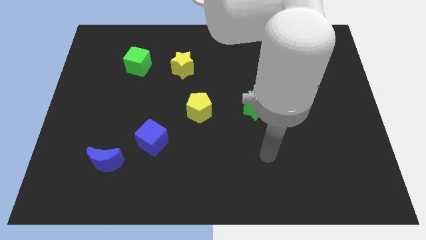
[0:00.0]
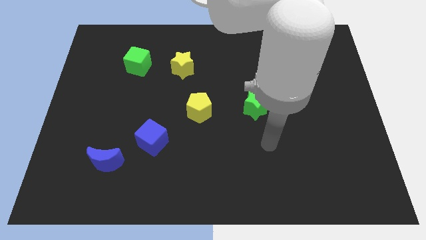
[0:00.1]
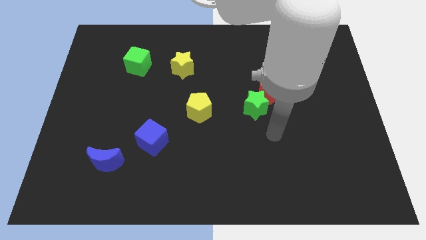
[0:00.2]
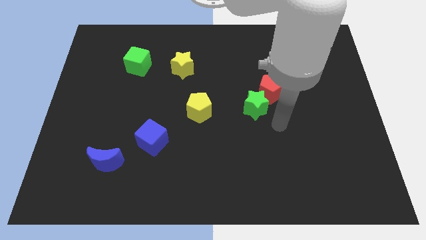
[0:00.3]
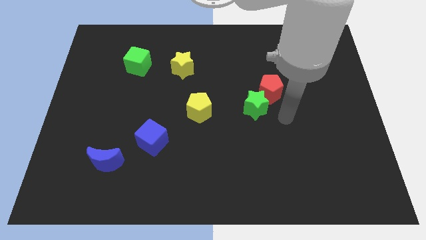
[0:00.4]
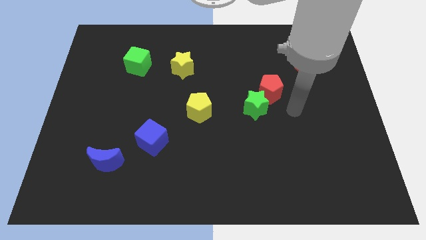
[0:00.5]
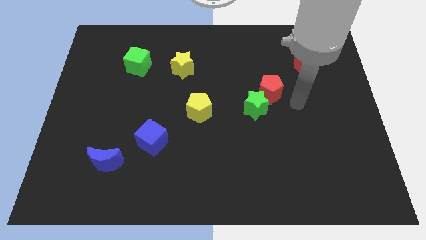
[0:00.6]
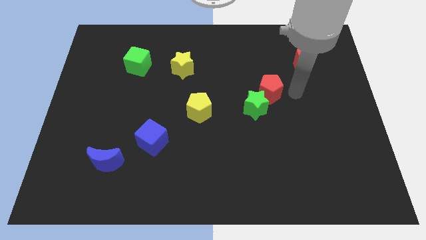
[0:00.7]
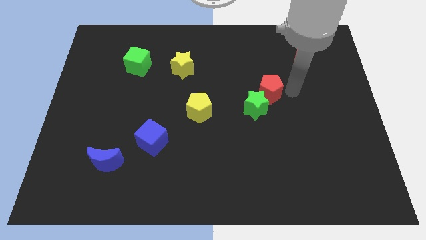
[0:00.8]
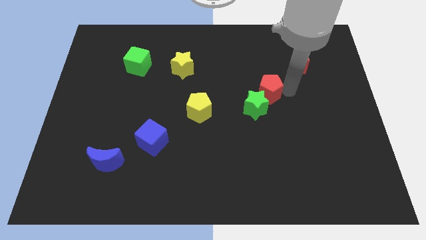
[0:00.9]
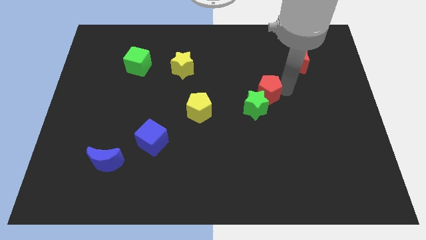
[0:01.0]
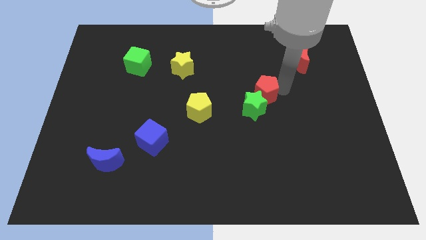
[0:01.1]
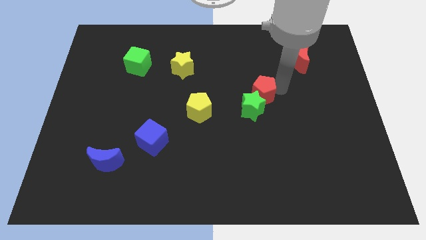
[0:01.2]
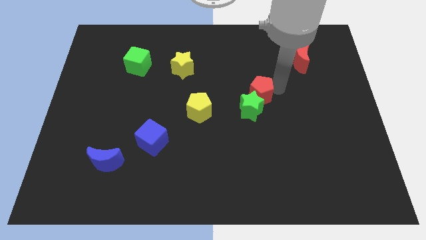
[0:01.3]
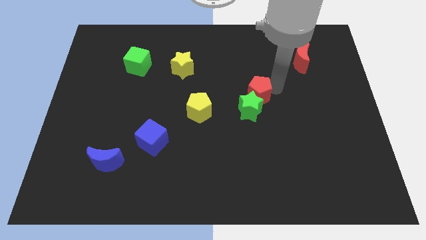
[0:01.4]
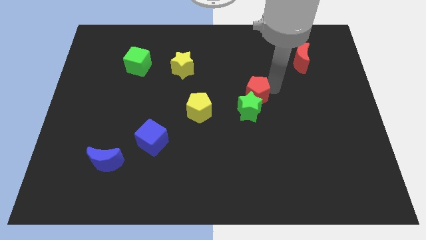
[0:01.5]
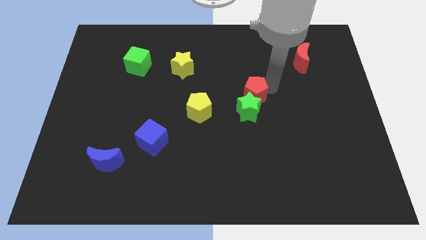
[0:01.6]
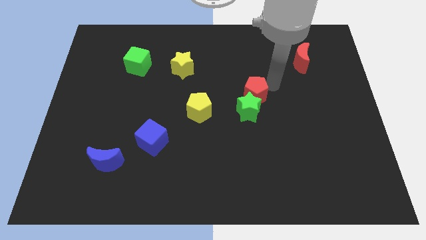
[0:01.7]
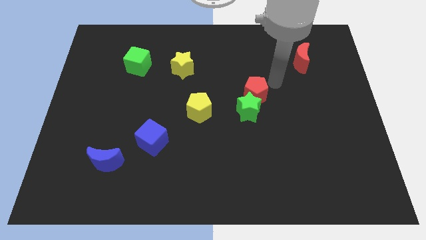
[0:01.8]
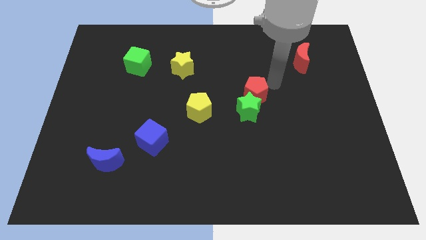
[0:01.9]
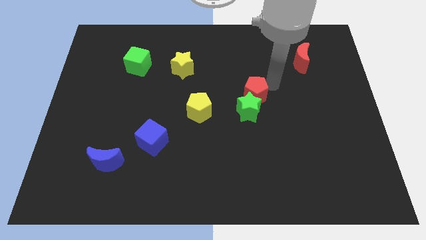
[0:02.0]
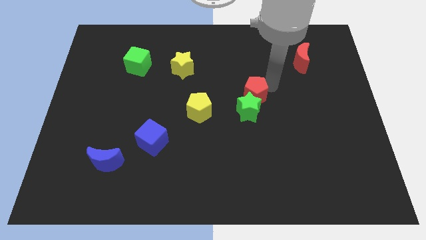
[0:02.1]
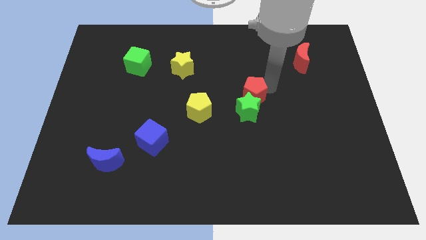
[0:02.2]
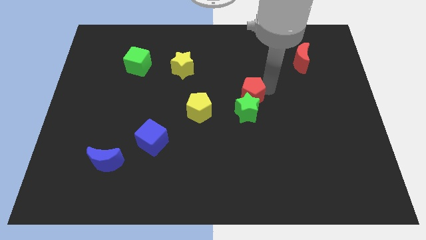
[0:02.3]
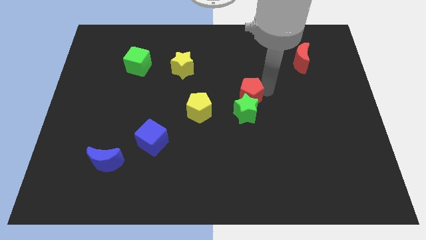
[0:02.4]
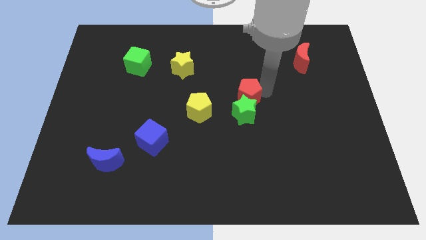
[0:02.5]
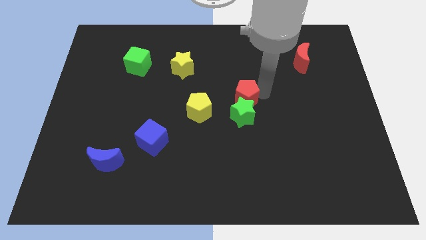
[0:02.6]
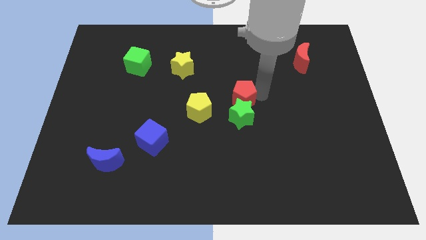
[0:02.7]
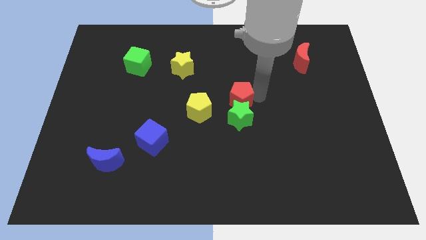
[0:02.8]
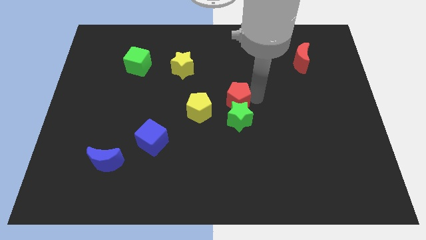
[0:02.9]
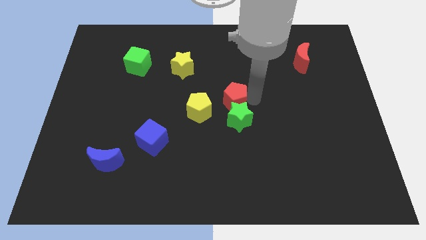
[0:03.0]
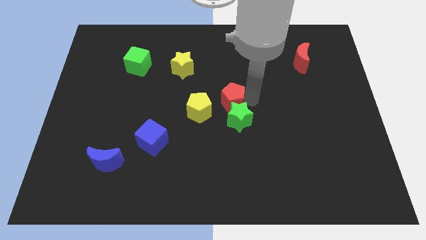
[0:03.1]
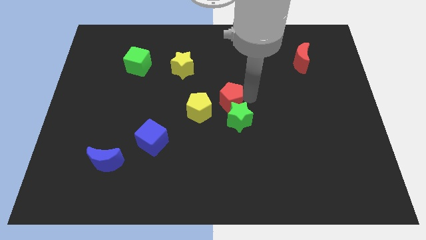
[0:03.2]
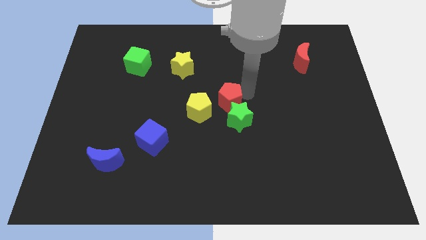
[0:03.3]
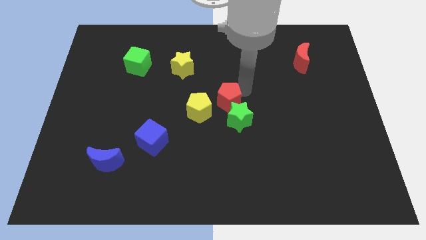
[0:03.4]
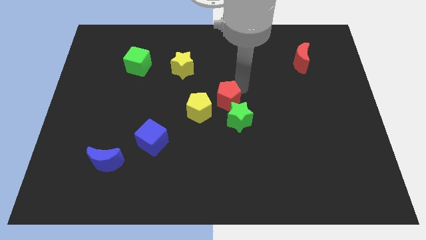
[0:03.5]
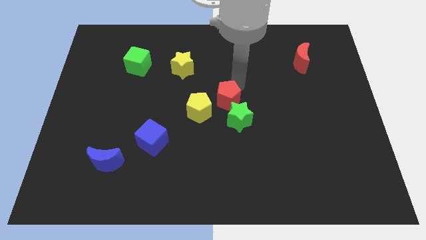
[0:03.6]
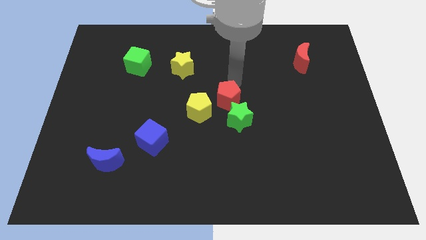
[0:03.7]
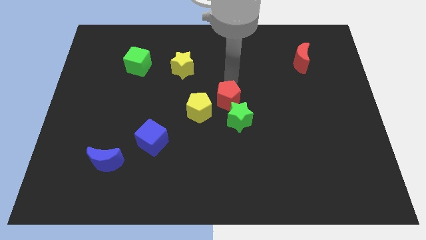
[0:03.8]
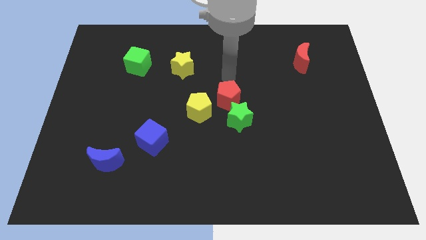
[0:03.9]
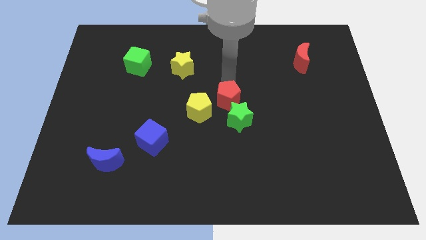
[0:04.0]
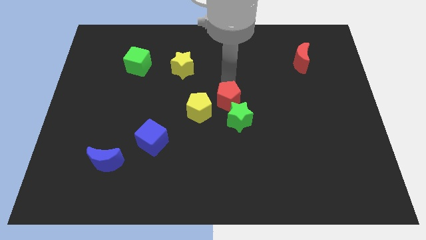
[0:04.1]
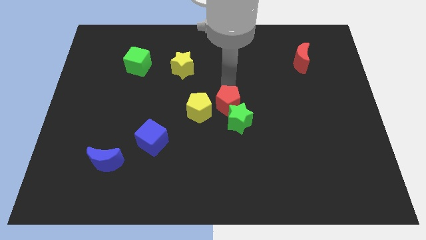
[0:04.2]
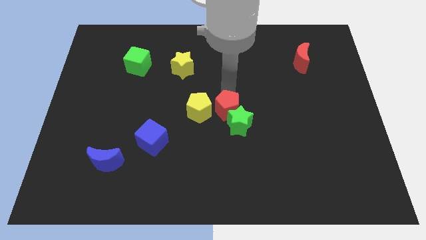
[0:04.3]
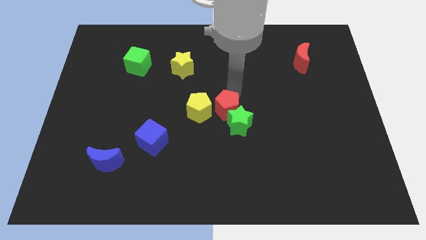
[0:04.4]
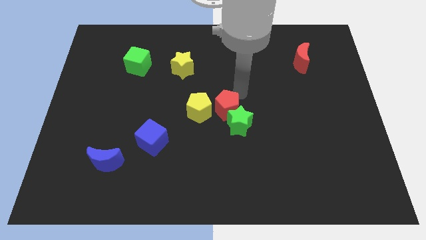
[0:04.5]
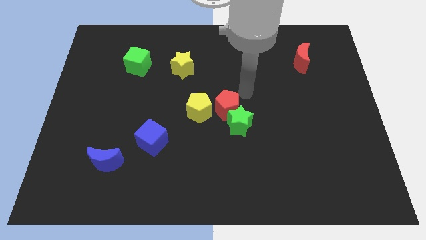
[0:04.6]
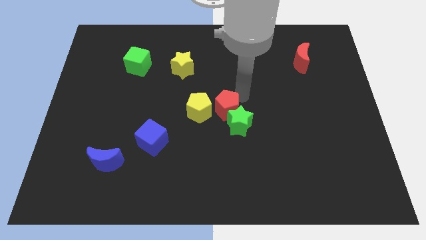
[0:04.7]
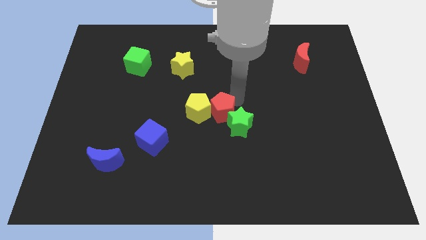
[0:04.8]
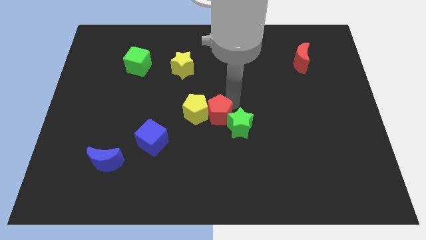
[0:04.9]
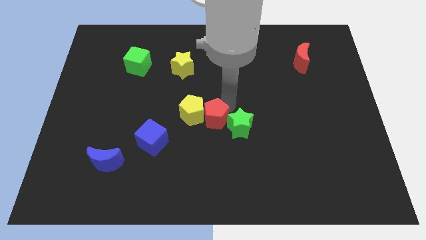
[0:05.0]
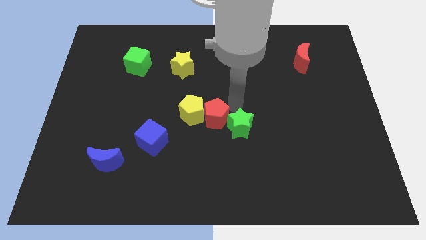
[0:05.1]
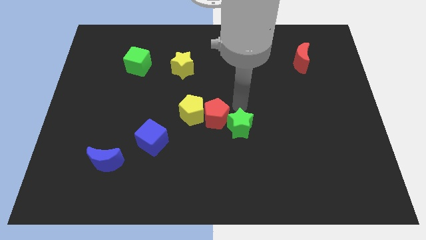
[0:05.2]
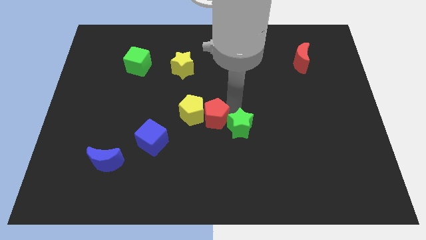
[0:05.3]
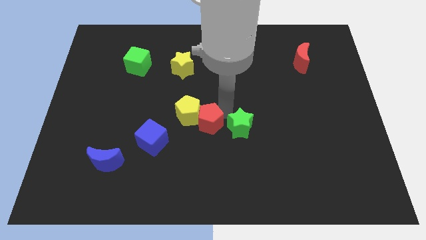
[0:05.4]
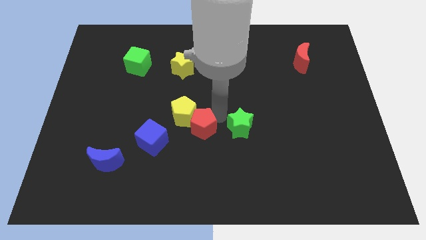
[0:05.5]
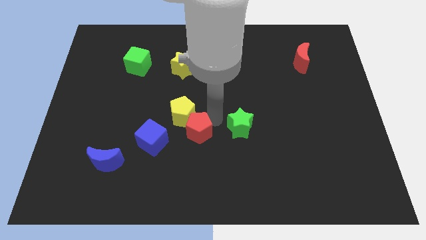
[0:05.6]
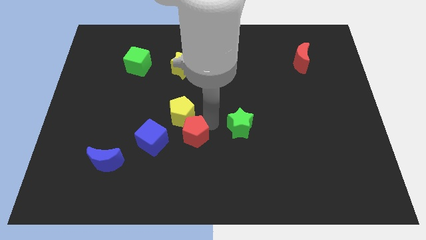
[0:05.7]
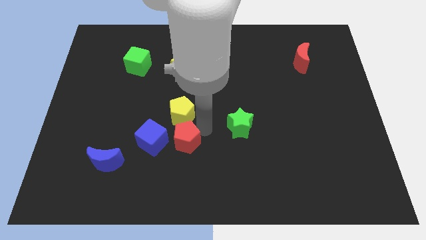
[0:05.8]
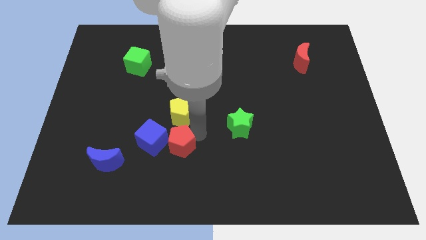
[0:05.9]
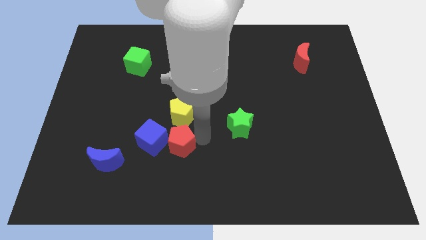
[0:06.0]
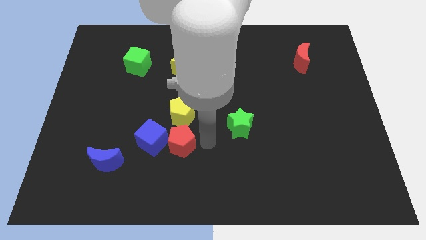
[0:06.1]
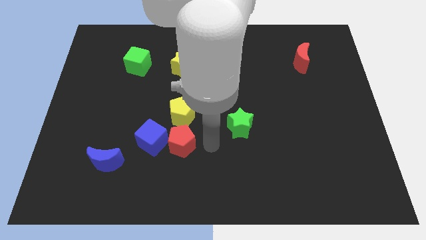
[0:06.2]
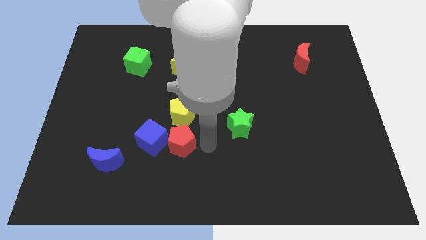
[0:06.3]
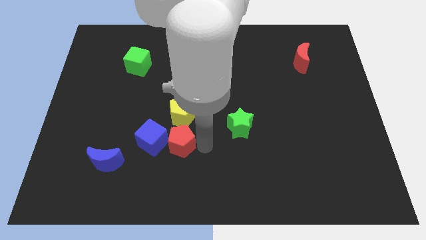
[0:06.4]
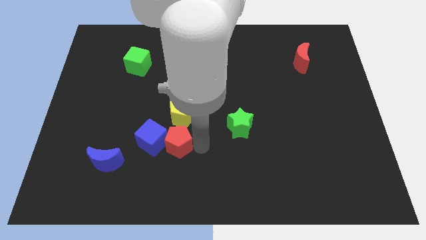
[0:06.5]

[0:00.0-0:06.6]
slide the red pentagon next to the blue cube
